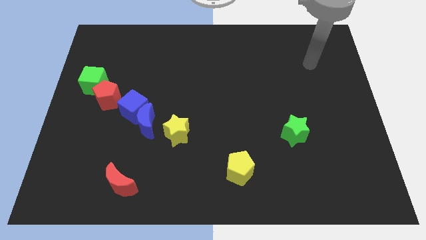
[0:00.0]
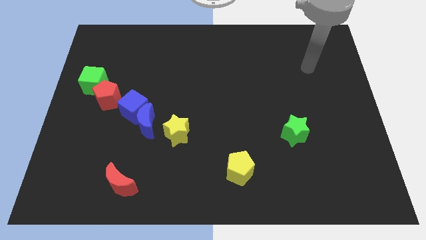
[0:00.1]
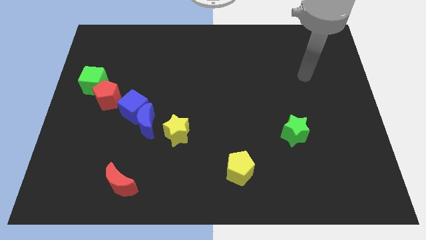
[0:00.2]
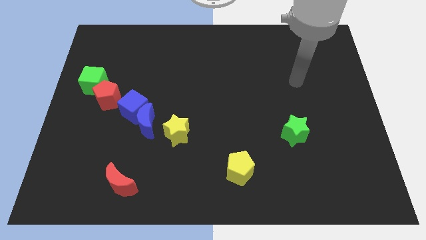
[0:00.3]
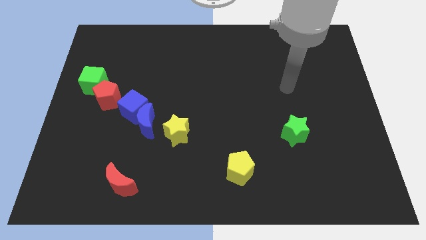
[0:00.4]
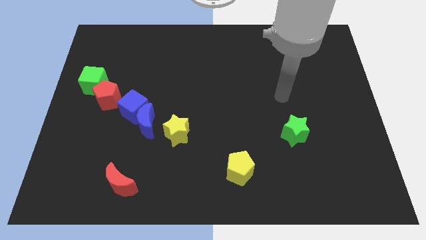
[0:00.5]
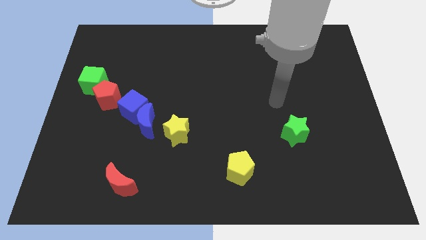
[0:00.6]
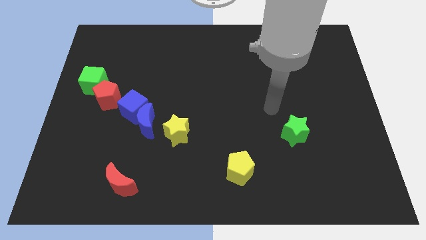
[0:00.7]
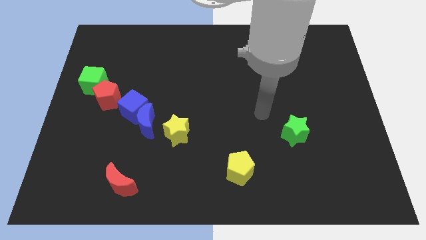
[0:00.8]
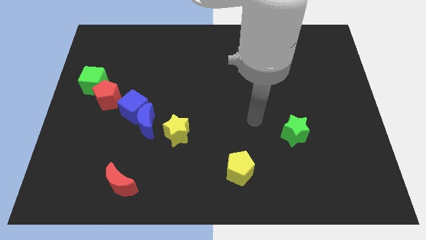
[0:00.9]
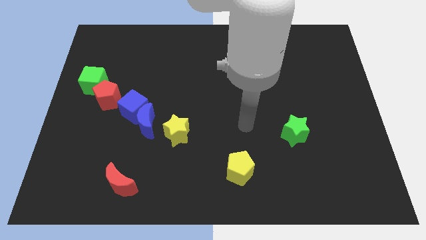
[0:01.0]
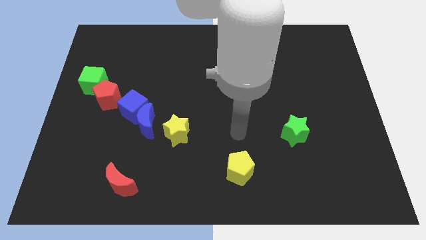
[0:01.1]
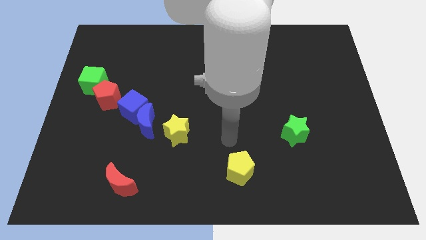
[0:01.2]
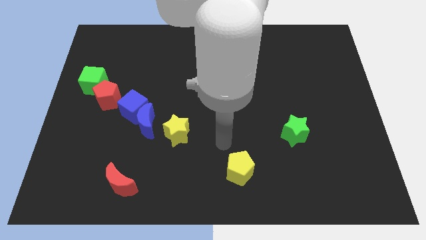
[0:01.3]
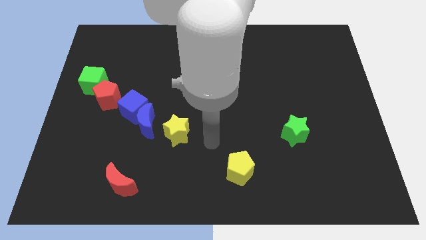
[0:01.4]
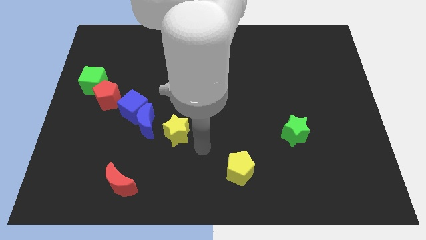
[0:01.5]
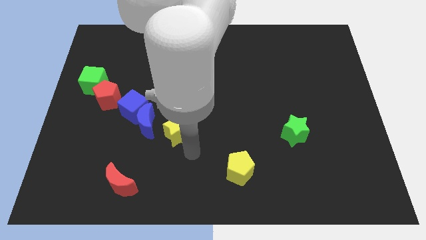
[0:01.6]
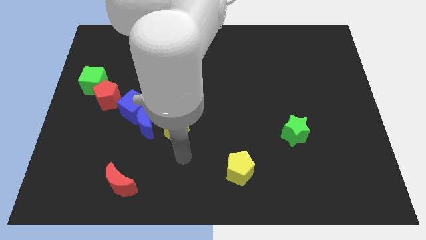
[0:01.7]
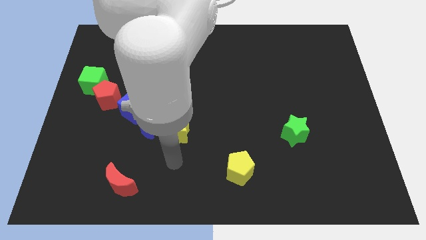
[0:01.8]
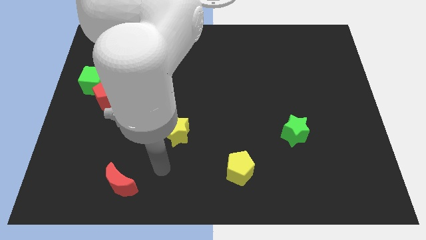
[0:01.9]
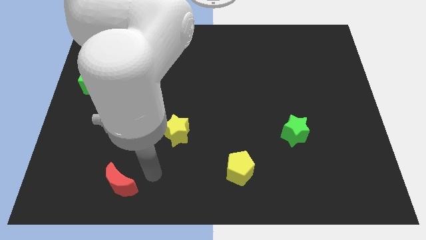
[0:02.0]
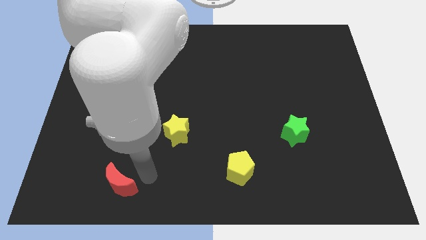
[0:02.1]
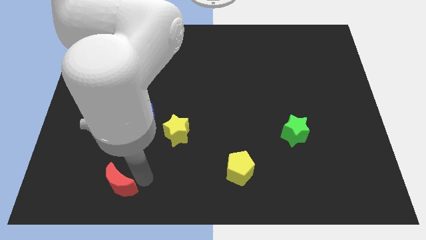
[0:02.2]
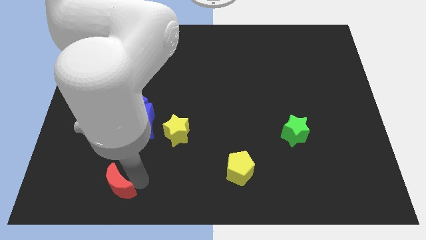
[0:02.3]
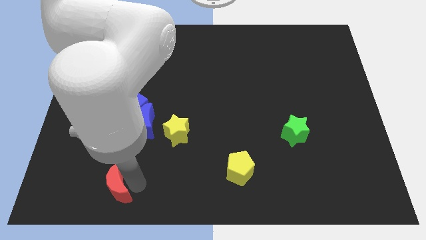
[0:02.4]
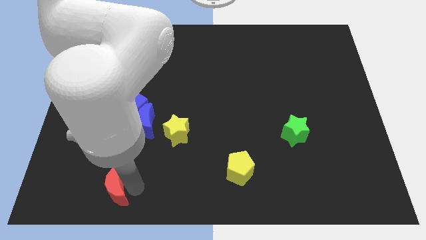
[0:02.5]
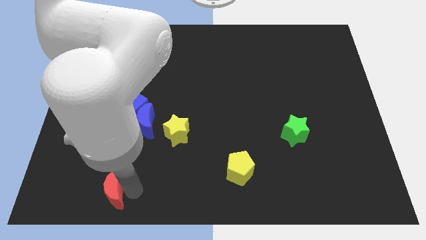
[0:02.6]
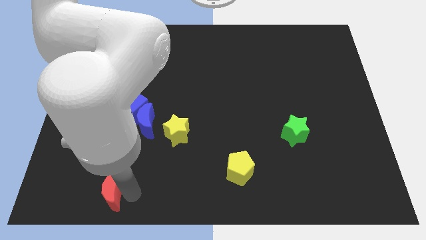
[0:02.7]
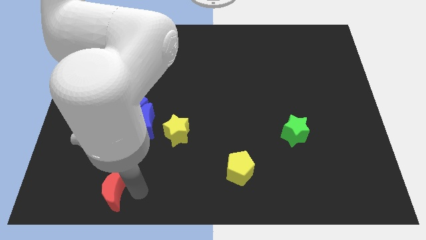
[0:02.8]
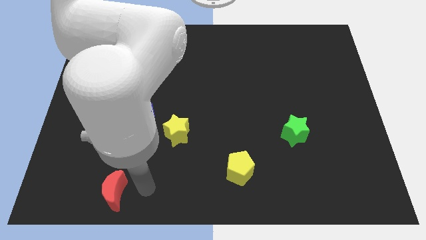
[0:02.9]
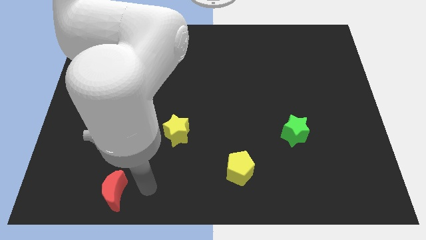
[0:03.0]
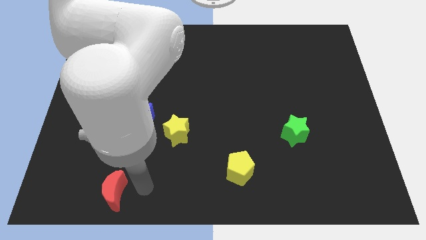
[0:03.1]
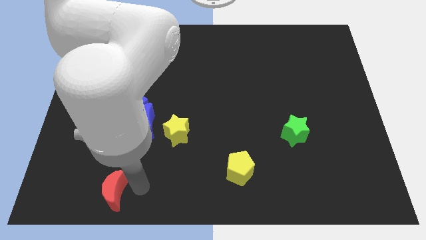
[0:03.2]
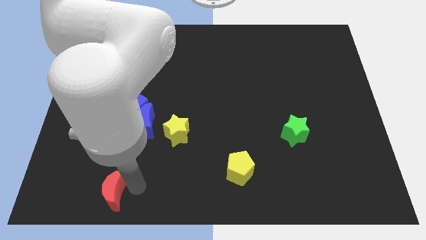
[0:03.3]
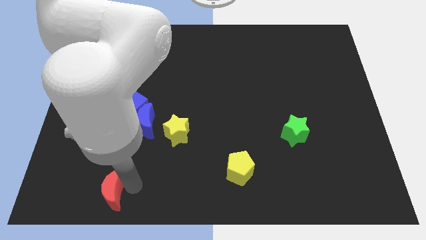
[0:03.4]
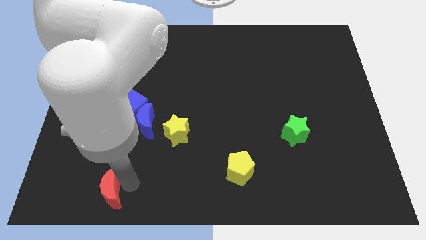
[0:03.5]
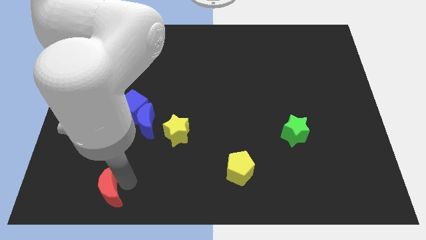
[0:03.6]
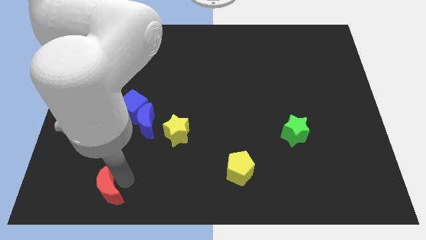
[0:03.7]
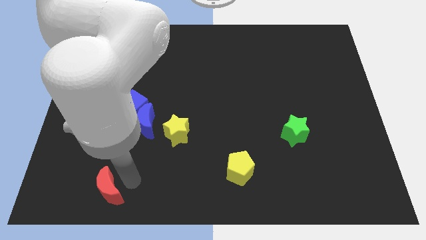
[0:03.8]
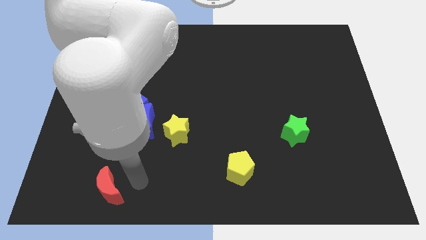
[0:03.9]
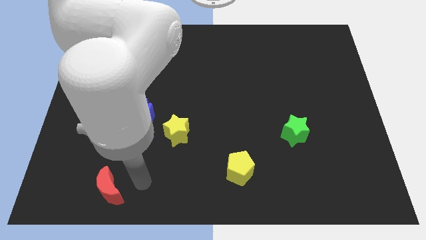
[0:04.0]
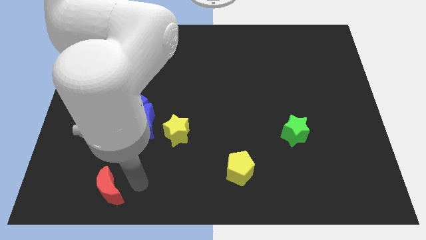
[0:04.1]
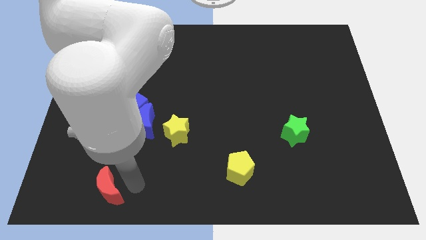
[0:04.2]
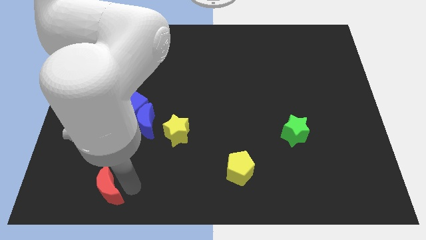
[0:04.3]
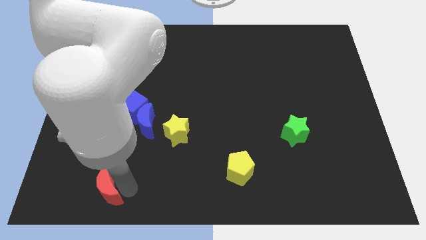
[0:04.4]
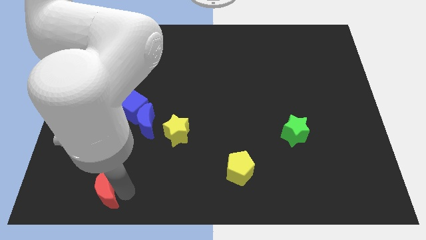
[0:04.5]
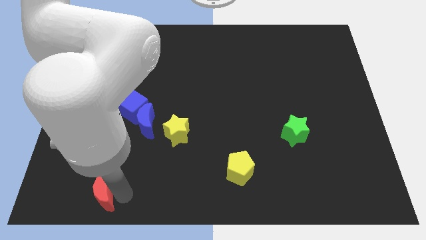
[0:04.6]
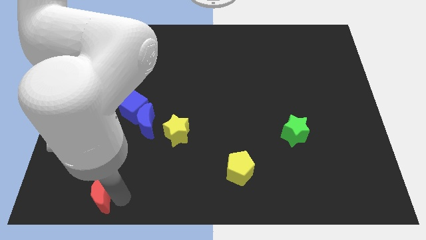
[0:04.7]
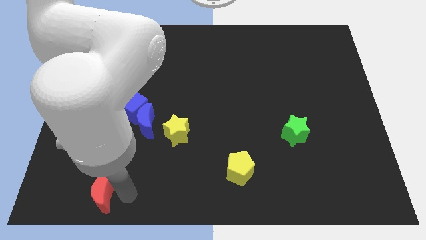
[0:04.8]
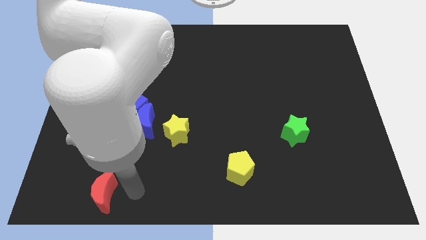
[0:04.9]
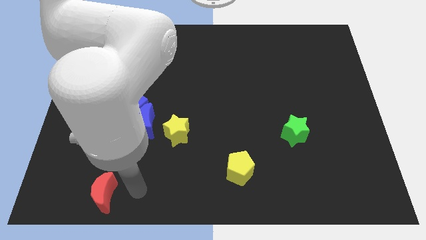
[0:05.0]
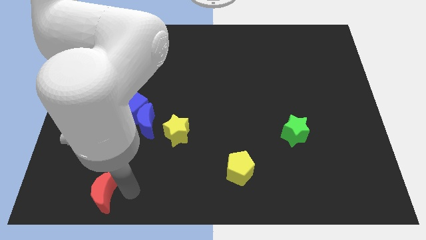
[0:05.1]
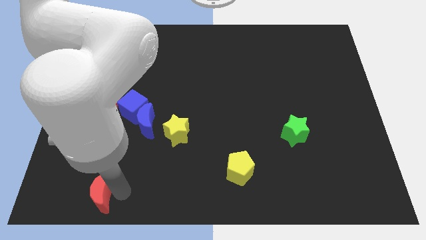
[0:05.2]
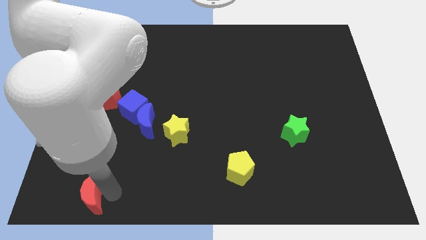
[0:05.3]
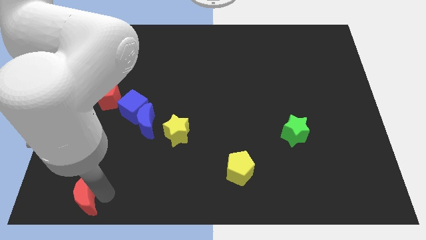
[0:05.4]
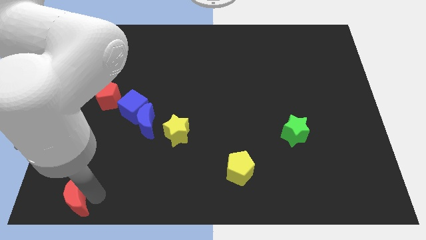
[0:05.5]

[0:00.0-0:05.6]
push the red moon to the bottom left of the board

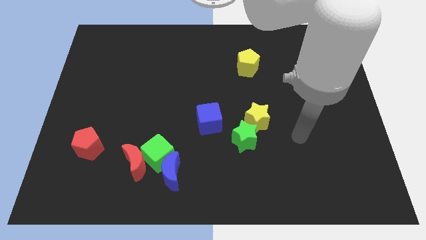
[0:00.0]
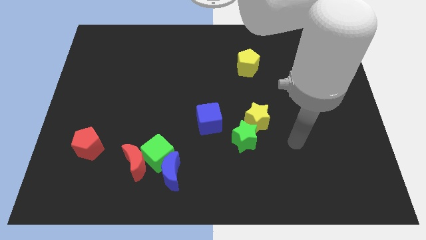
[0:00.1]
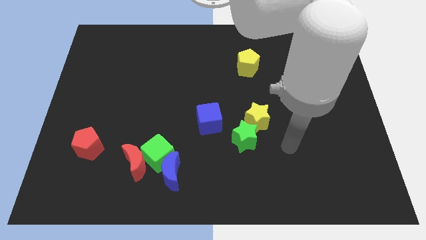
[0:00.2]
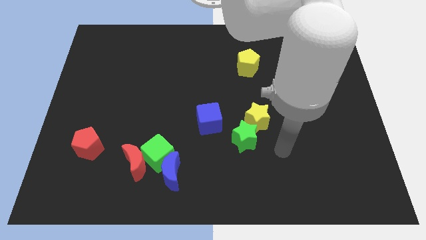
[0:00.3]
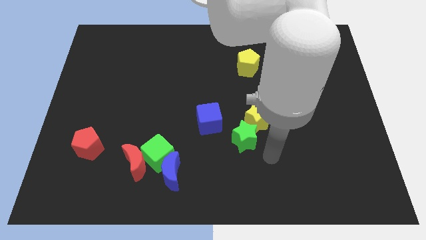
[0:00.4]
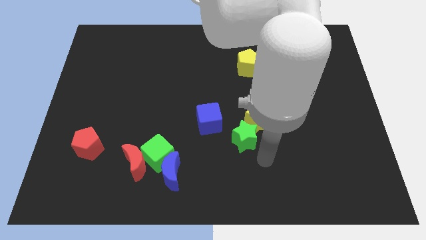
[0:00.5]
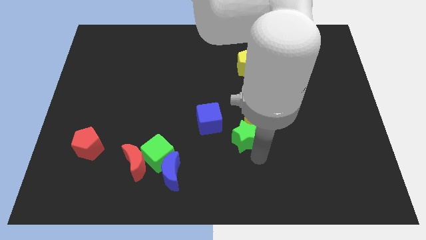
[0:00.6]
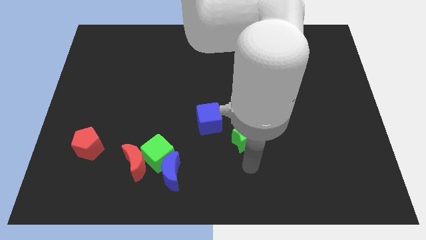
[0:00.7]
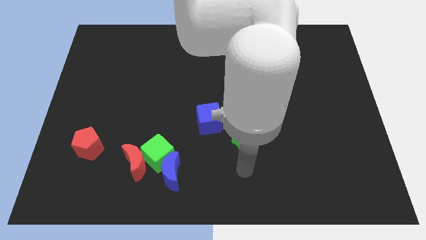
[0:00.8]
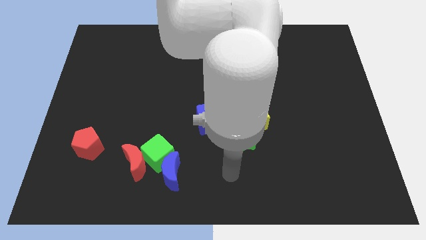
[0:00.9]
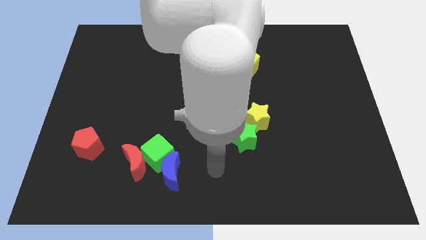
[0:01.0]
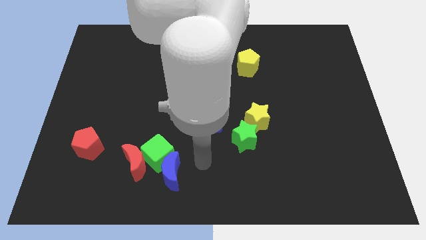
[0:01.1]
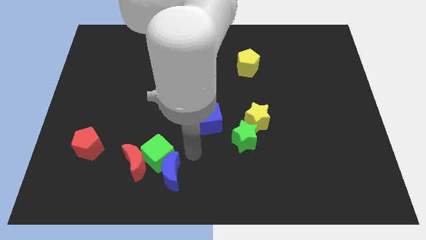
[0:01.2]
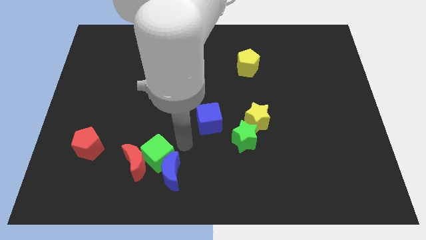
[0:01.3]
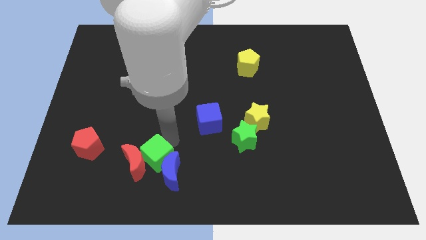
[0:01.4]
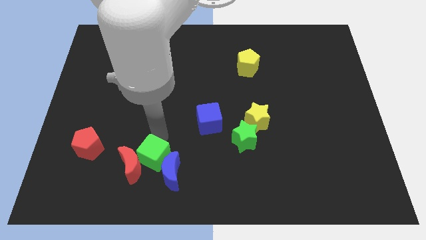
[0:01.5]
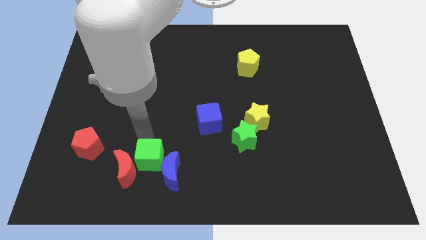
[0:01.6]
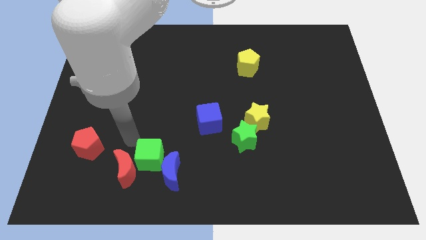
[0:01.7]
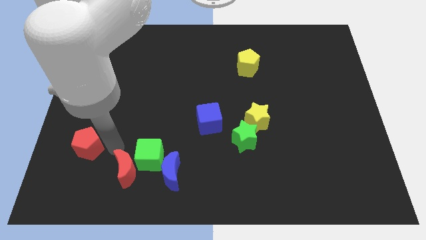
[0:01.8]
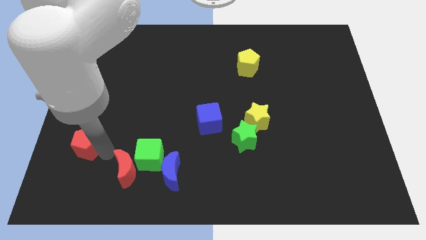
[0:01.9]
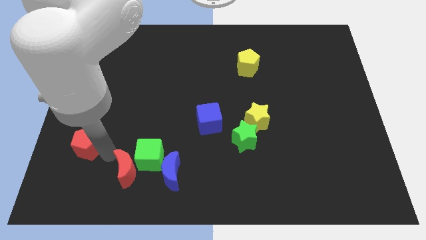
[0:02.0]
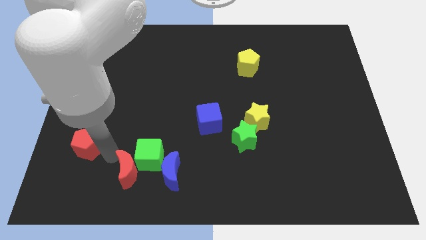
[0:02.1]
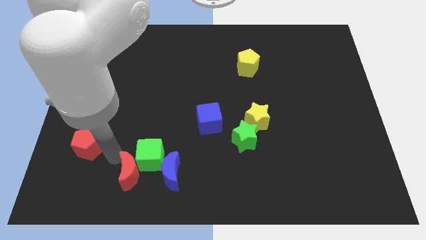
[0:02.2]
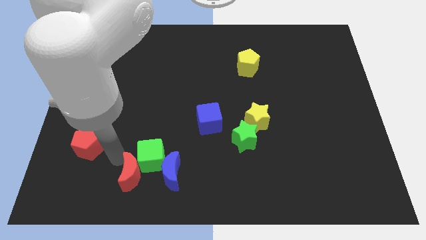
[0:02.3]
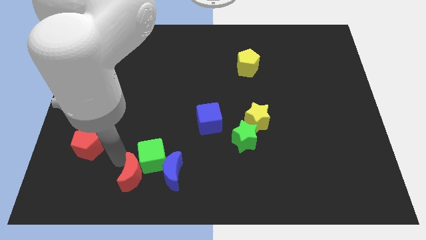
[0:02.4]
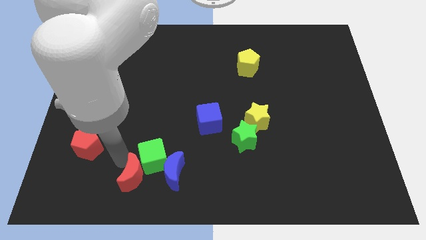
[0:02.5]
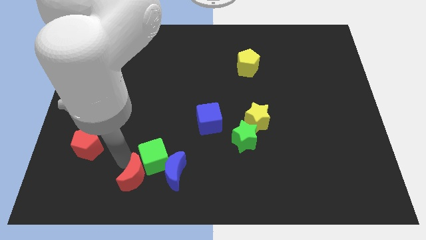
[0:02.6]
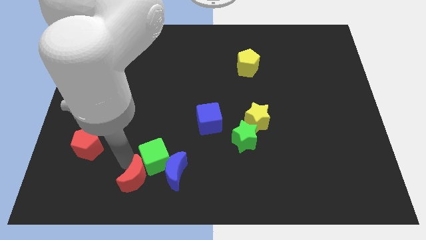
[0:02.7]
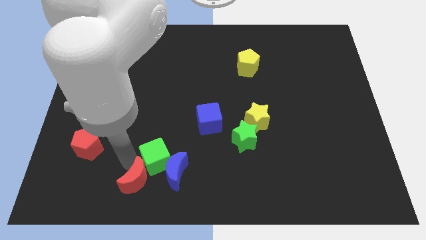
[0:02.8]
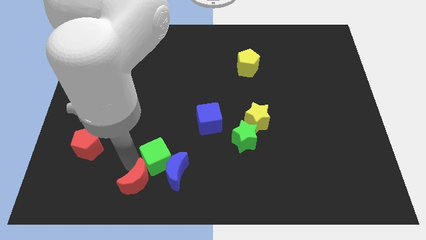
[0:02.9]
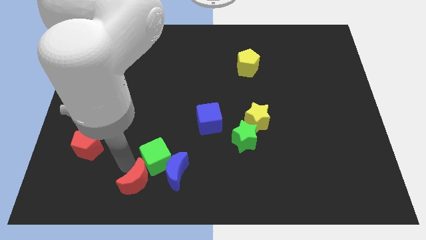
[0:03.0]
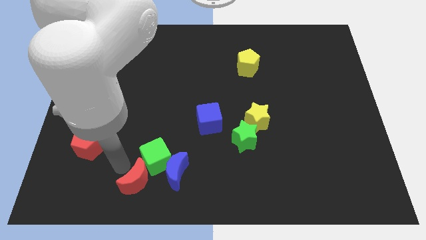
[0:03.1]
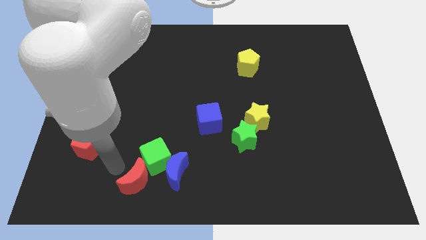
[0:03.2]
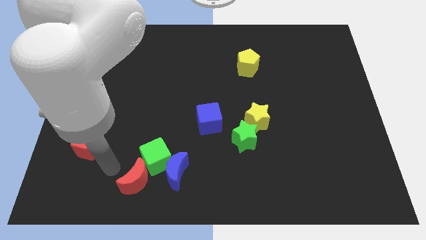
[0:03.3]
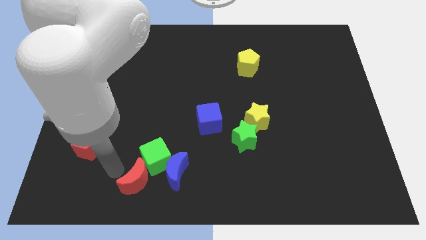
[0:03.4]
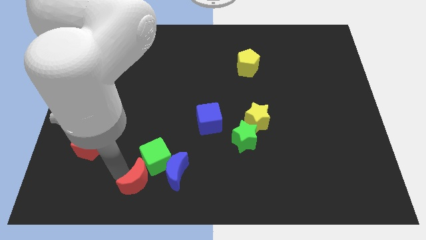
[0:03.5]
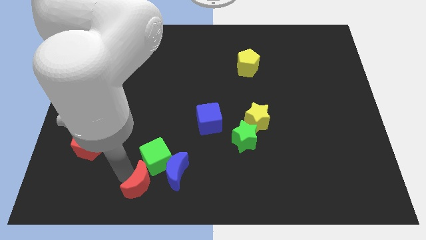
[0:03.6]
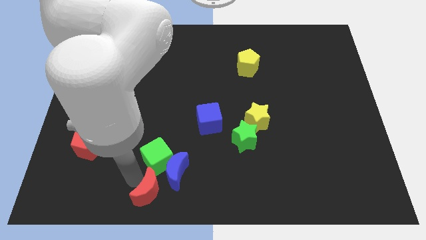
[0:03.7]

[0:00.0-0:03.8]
slide the red moon to the bottom side
